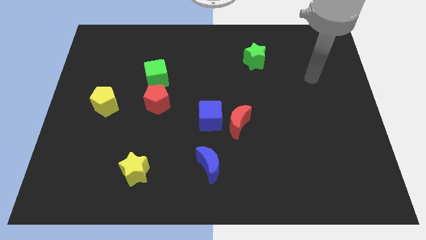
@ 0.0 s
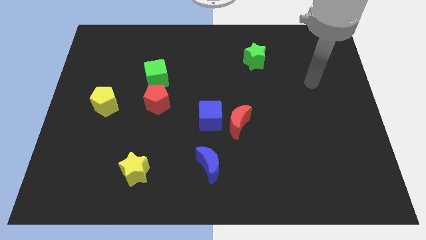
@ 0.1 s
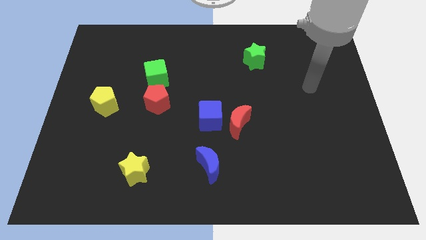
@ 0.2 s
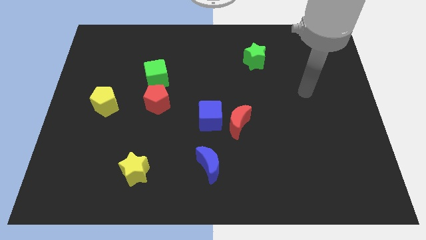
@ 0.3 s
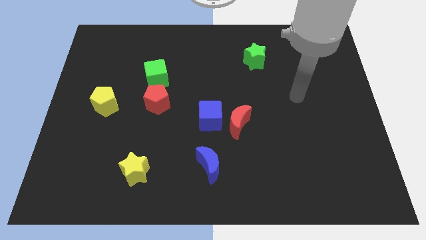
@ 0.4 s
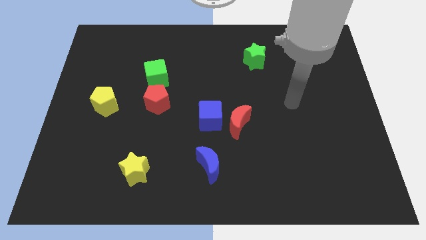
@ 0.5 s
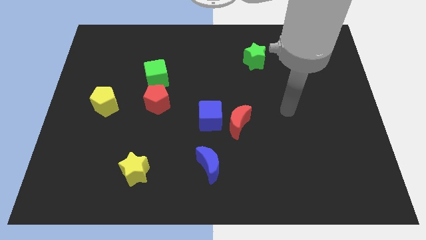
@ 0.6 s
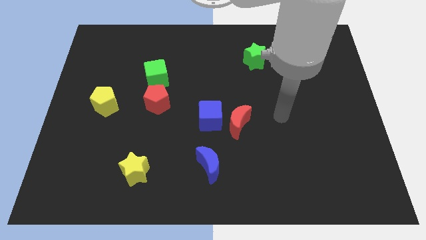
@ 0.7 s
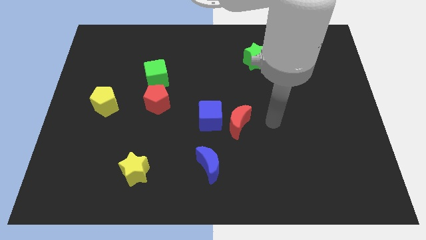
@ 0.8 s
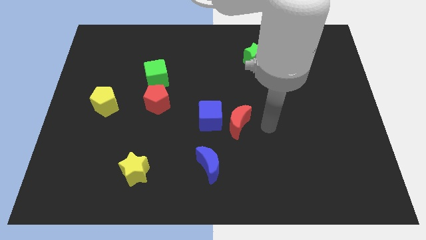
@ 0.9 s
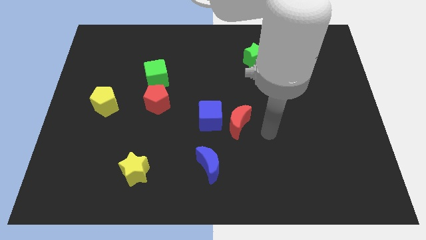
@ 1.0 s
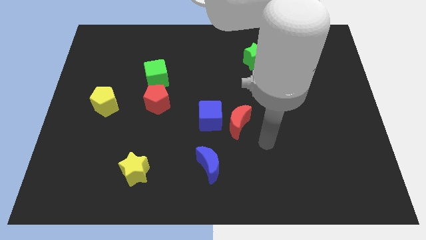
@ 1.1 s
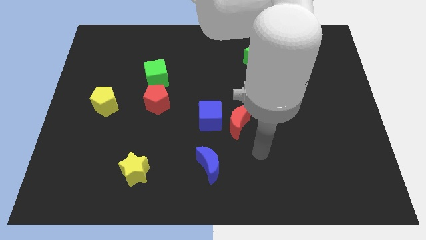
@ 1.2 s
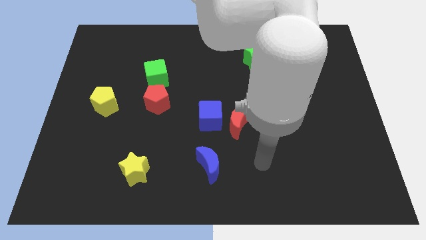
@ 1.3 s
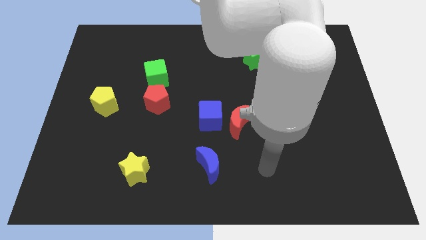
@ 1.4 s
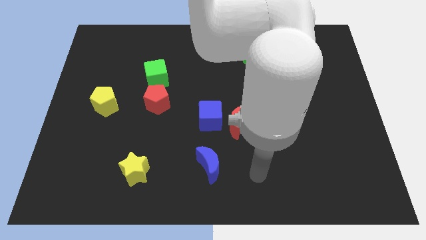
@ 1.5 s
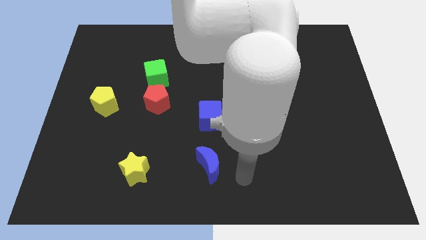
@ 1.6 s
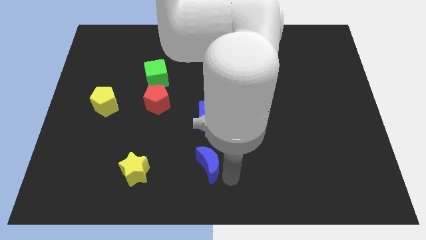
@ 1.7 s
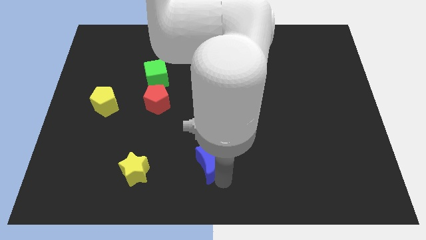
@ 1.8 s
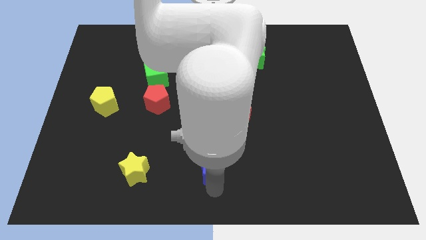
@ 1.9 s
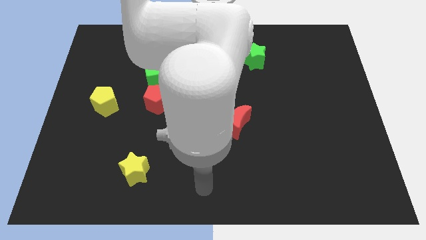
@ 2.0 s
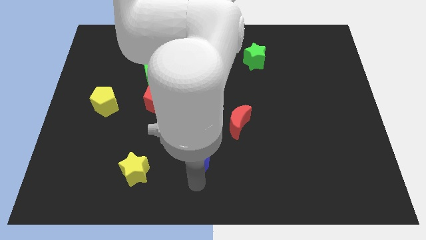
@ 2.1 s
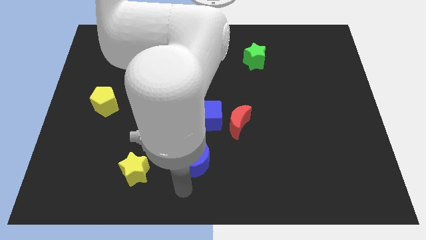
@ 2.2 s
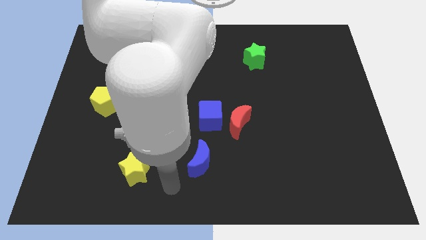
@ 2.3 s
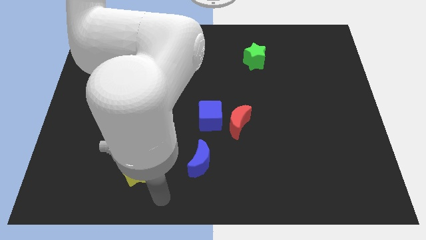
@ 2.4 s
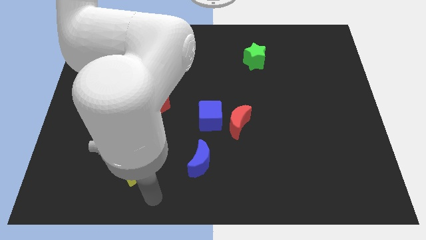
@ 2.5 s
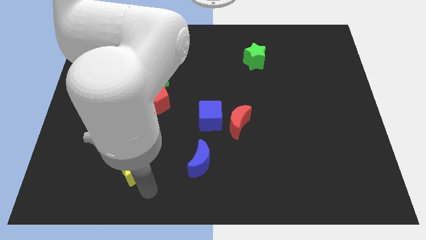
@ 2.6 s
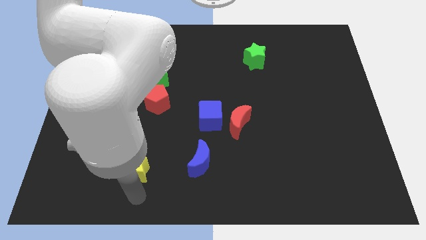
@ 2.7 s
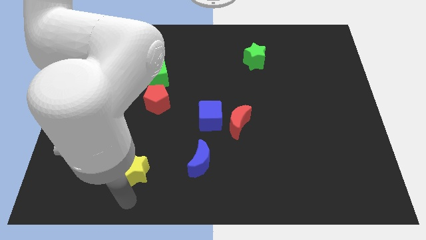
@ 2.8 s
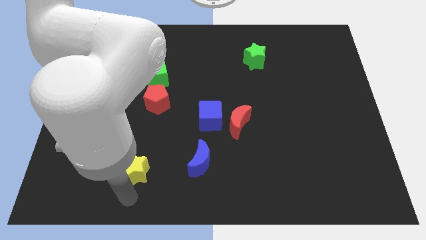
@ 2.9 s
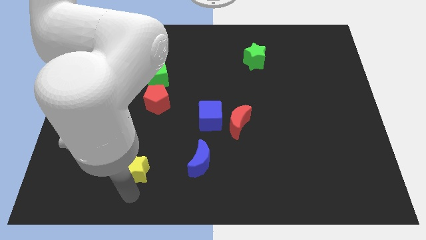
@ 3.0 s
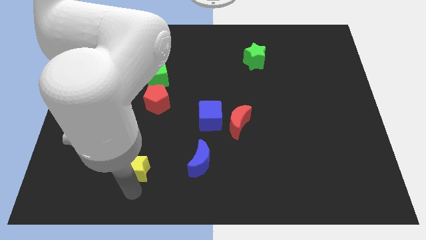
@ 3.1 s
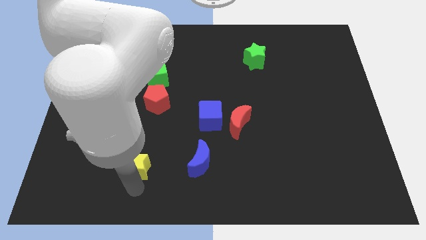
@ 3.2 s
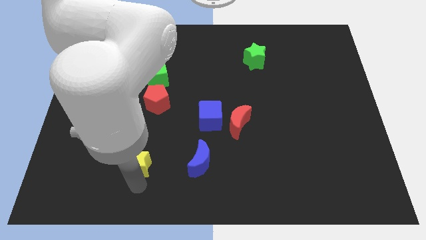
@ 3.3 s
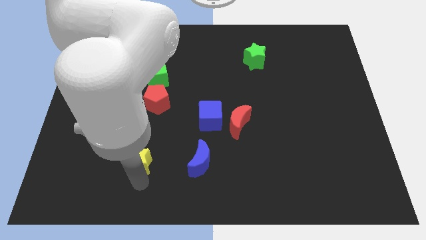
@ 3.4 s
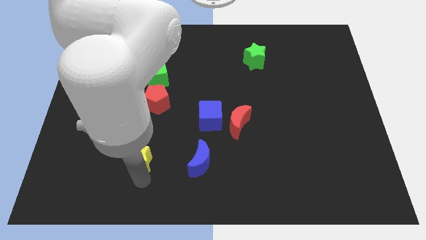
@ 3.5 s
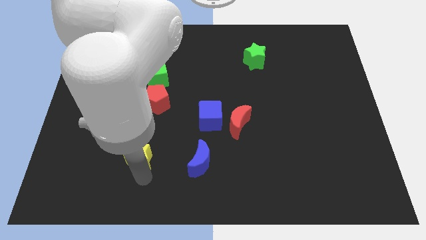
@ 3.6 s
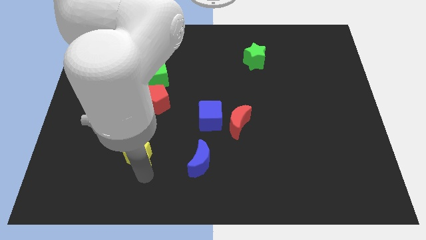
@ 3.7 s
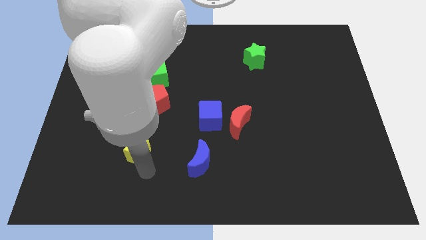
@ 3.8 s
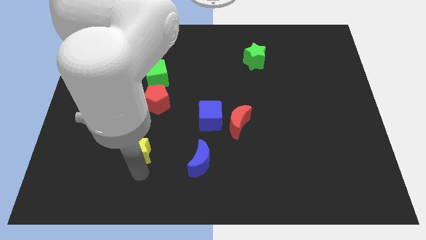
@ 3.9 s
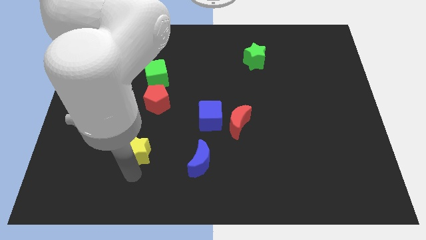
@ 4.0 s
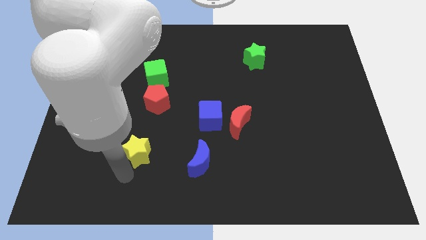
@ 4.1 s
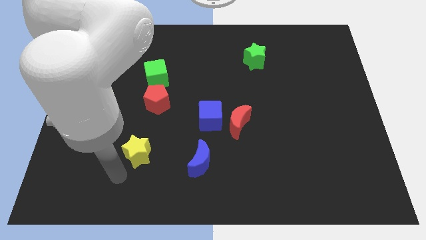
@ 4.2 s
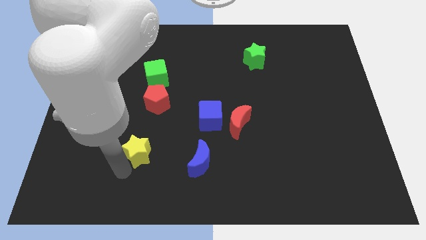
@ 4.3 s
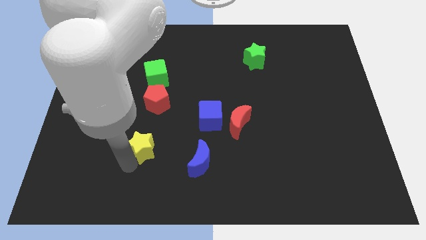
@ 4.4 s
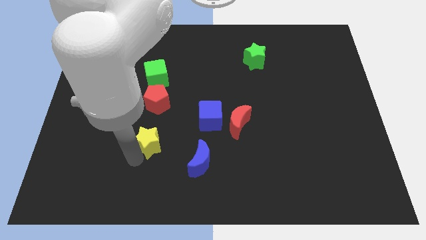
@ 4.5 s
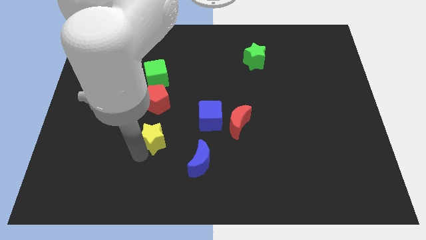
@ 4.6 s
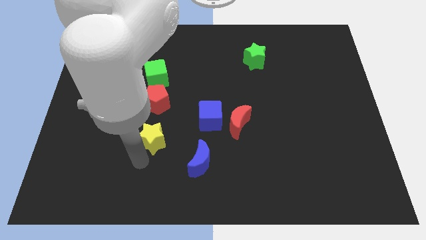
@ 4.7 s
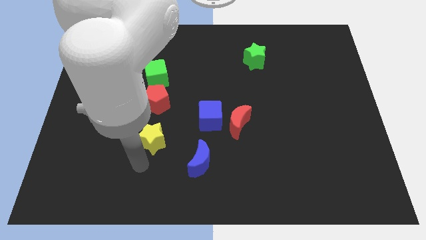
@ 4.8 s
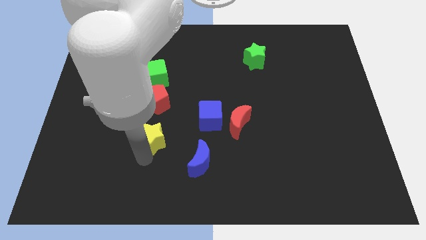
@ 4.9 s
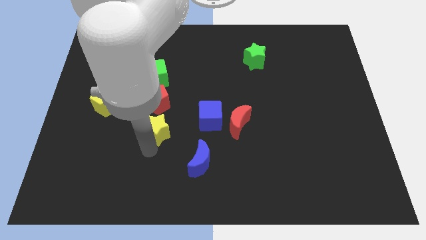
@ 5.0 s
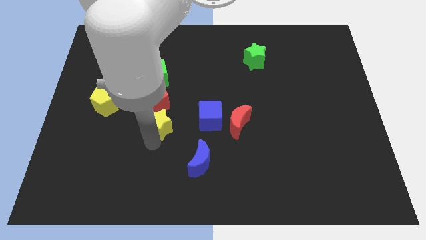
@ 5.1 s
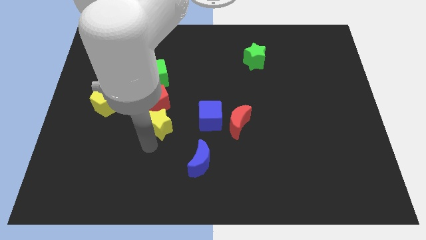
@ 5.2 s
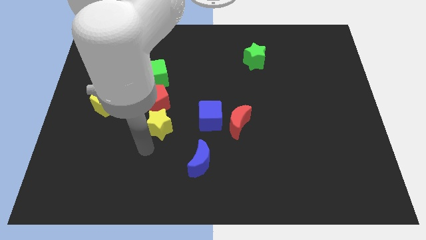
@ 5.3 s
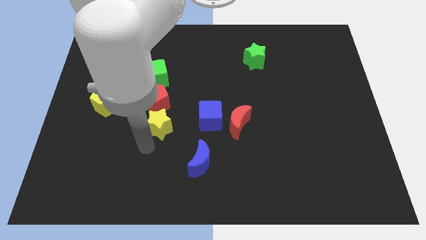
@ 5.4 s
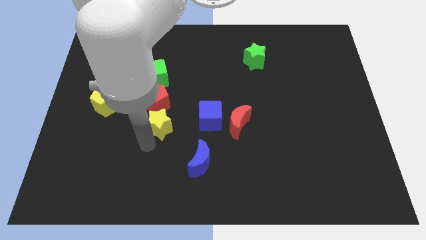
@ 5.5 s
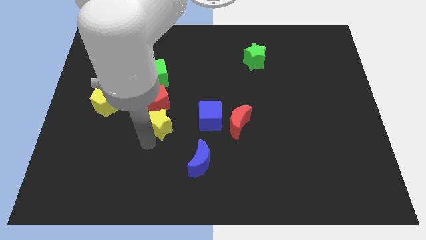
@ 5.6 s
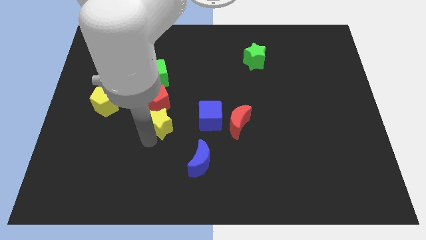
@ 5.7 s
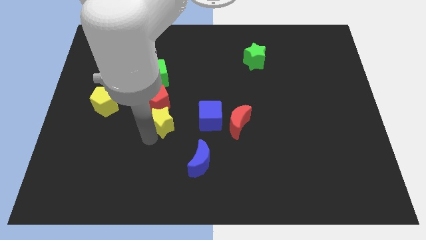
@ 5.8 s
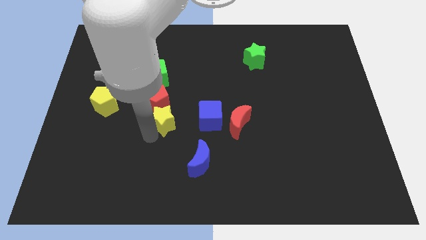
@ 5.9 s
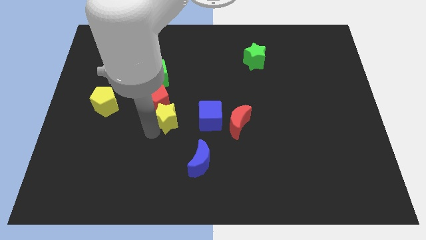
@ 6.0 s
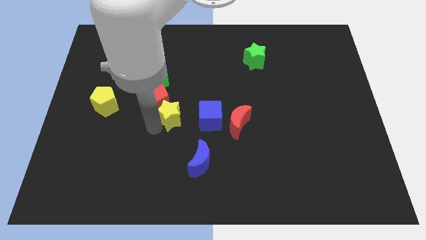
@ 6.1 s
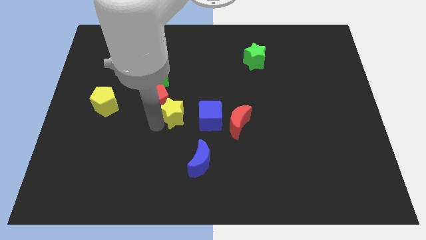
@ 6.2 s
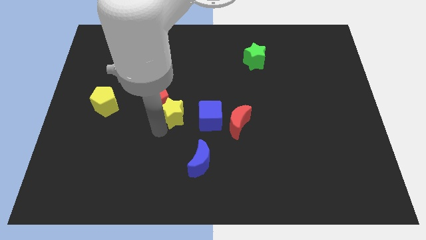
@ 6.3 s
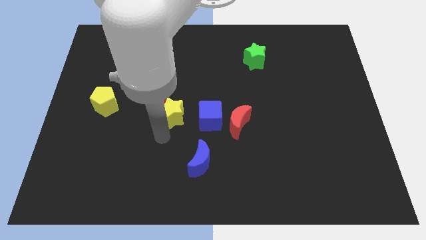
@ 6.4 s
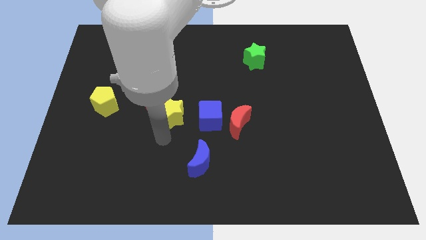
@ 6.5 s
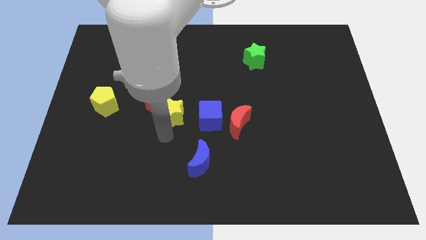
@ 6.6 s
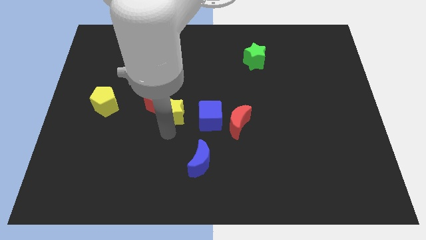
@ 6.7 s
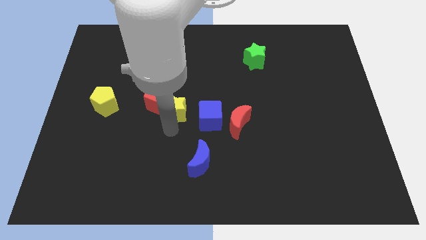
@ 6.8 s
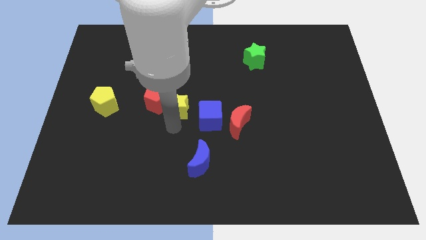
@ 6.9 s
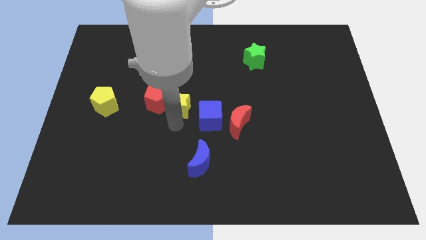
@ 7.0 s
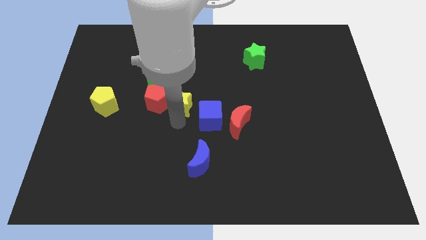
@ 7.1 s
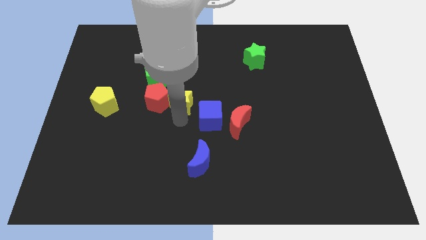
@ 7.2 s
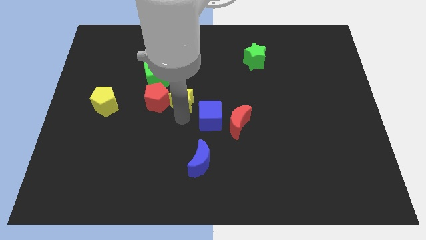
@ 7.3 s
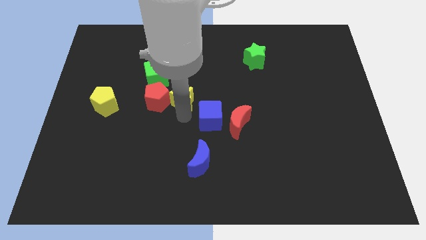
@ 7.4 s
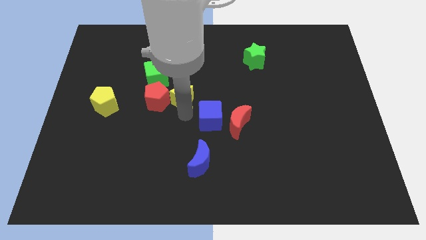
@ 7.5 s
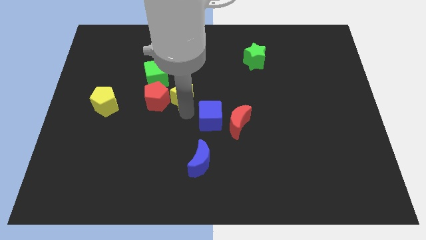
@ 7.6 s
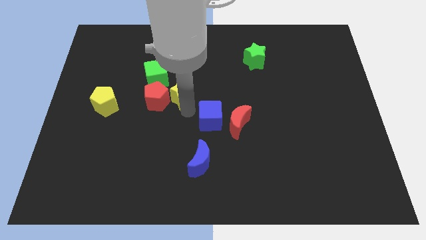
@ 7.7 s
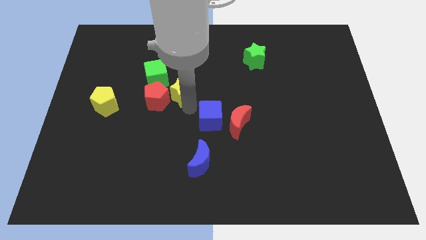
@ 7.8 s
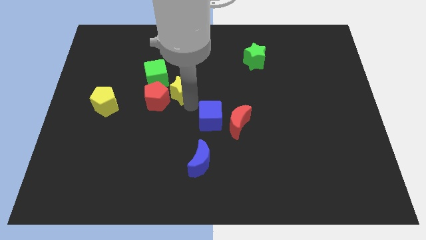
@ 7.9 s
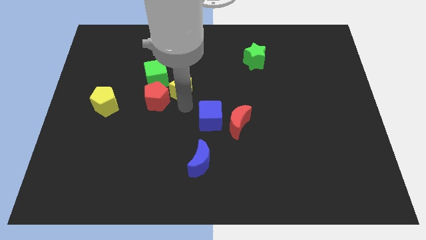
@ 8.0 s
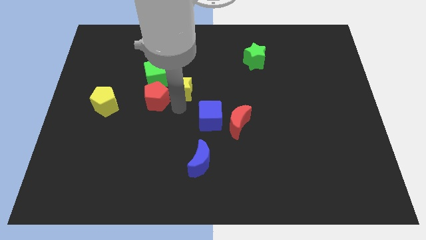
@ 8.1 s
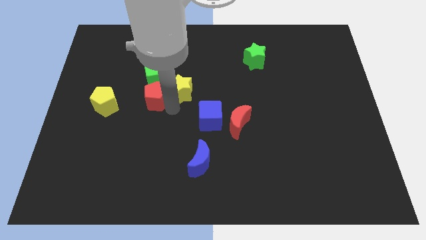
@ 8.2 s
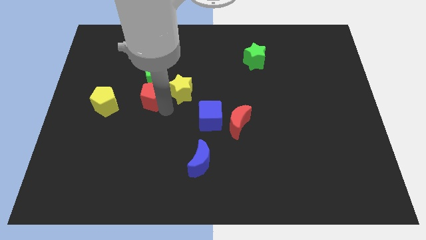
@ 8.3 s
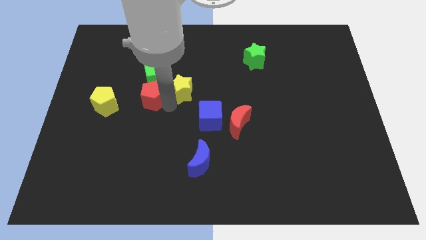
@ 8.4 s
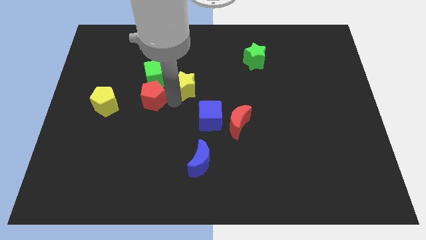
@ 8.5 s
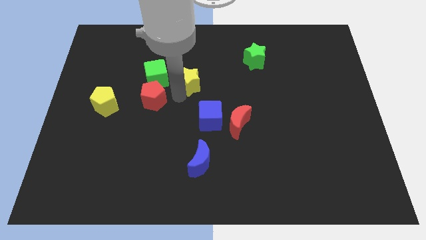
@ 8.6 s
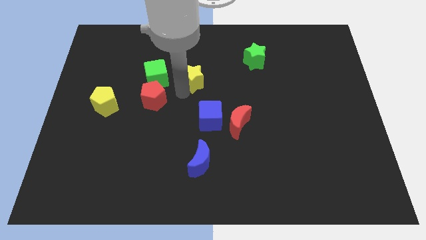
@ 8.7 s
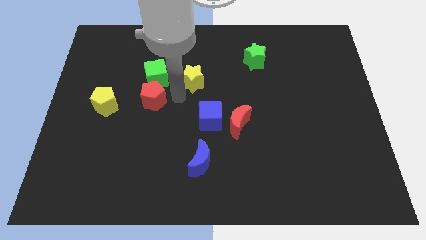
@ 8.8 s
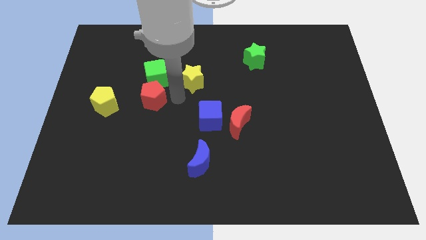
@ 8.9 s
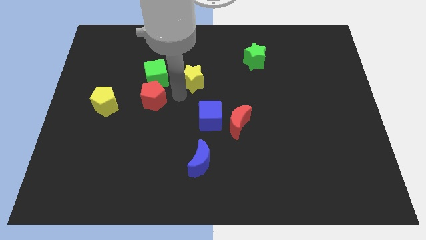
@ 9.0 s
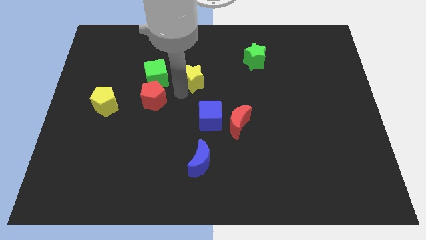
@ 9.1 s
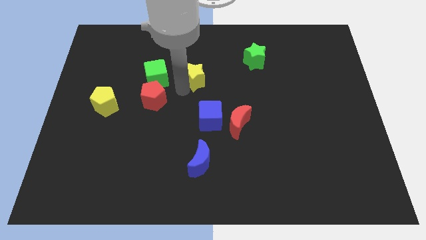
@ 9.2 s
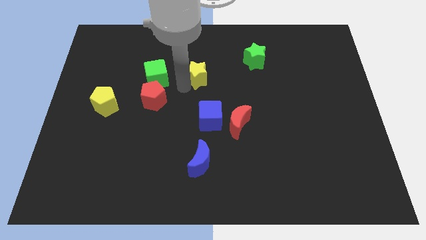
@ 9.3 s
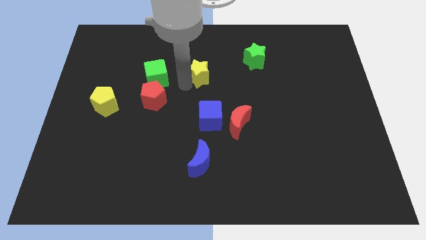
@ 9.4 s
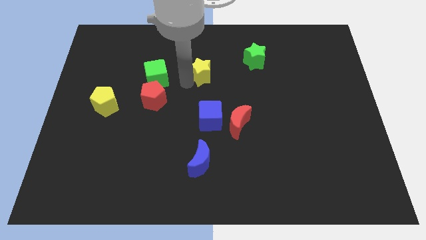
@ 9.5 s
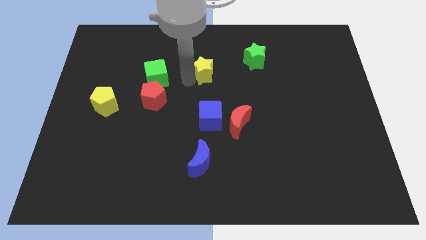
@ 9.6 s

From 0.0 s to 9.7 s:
put the yellow star to the left side of the green star
